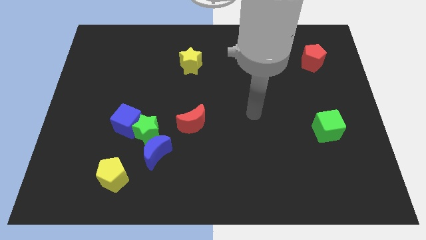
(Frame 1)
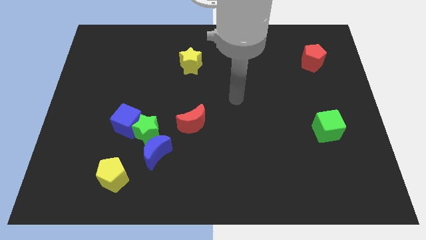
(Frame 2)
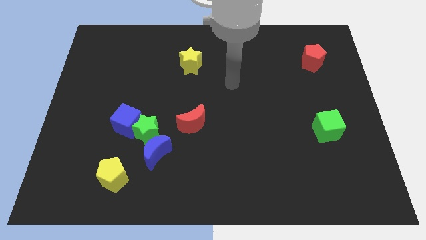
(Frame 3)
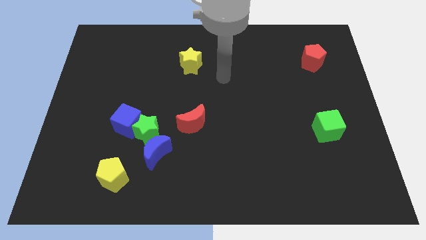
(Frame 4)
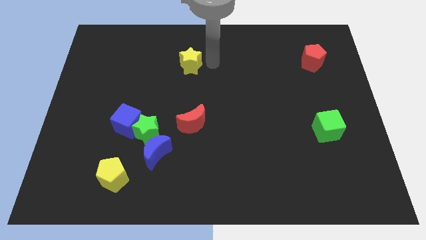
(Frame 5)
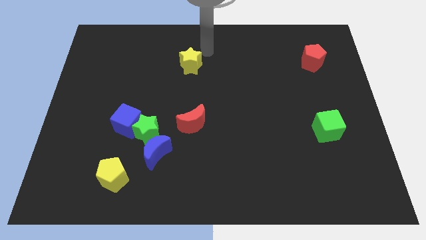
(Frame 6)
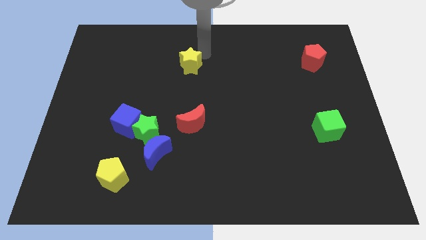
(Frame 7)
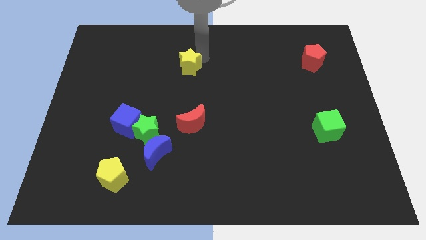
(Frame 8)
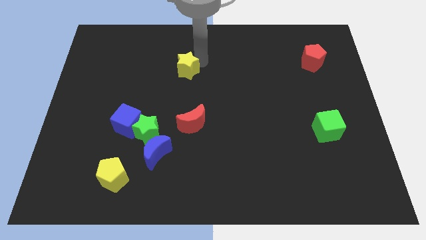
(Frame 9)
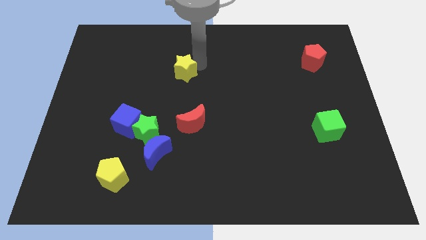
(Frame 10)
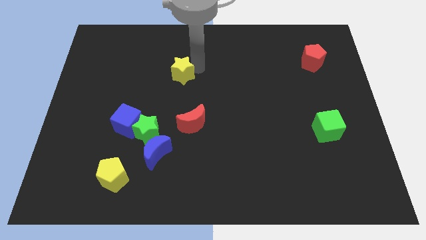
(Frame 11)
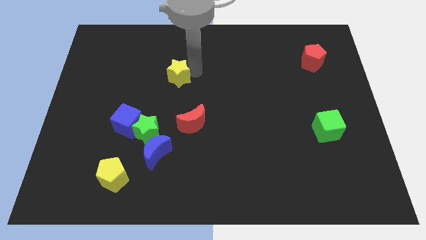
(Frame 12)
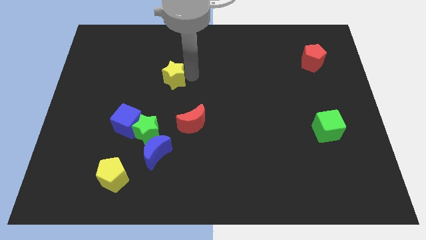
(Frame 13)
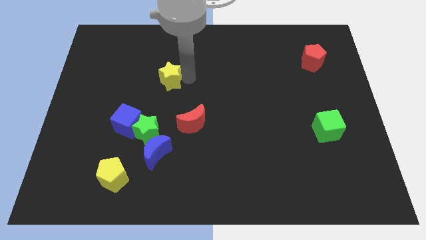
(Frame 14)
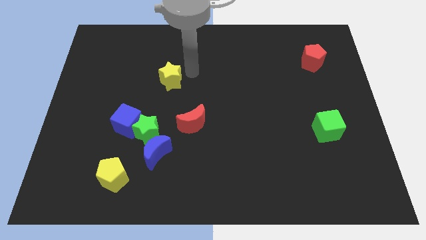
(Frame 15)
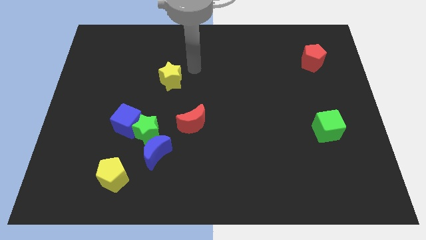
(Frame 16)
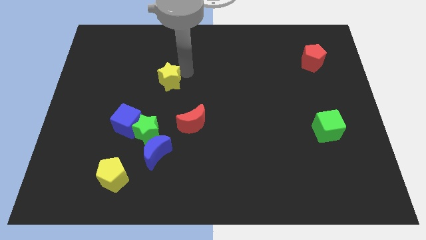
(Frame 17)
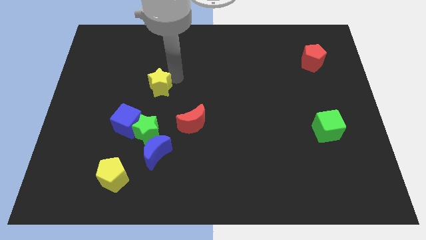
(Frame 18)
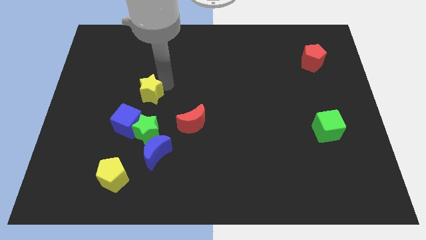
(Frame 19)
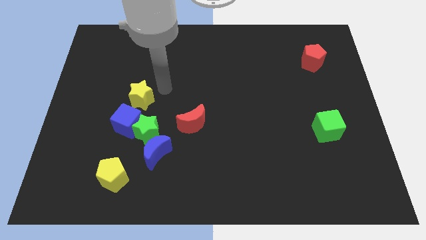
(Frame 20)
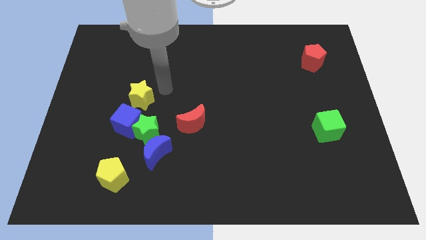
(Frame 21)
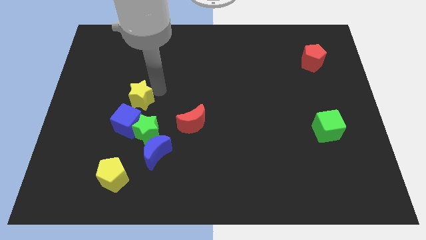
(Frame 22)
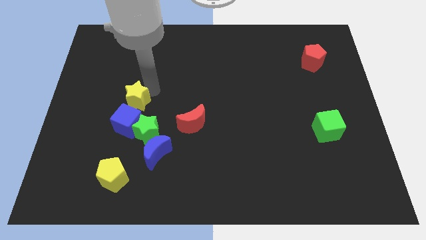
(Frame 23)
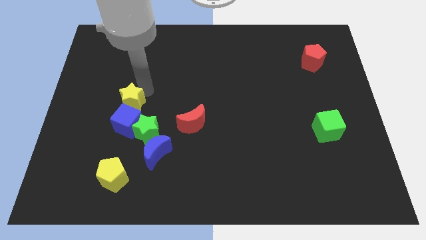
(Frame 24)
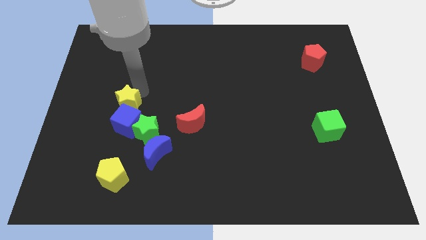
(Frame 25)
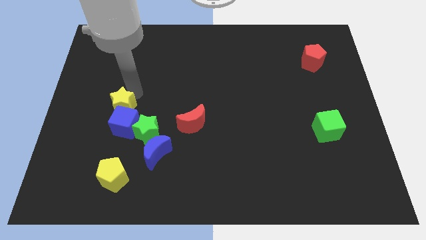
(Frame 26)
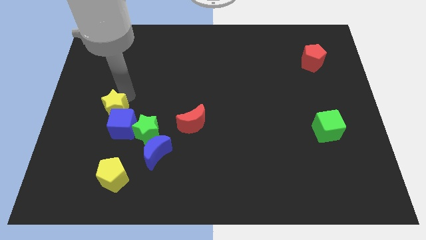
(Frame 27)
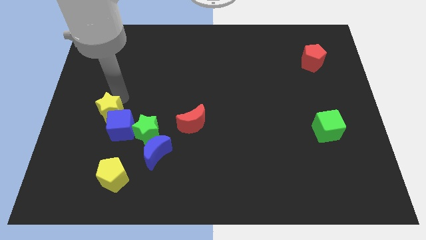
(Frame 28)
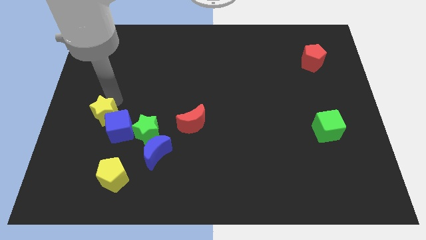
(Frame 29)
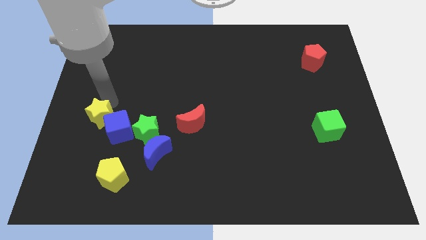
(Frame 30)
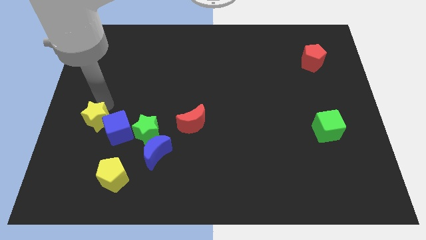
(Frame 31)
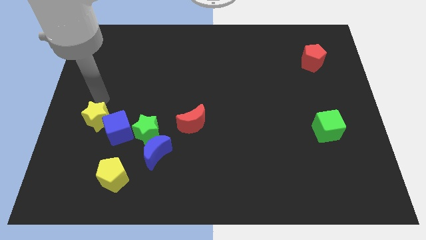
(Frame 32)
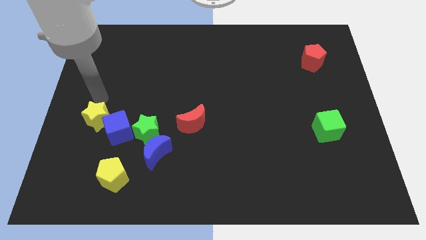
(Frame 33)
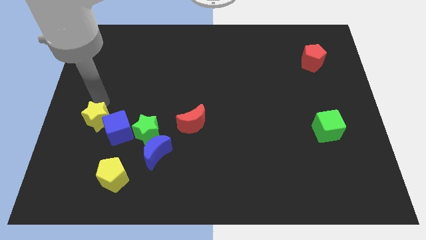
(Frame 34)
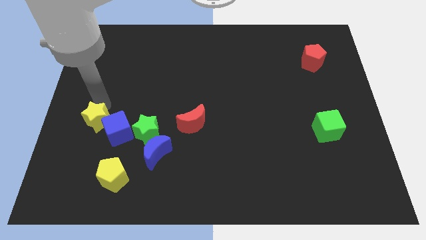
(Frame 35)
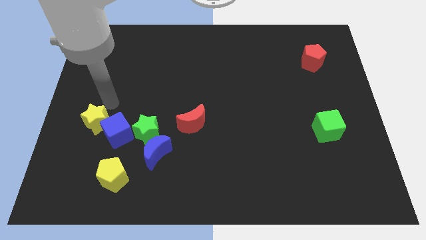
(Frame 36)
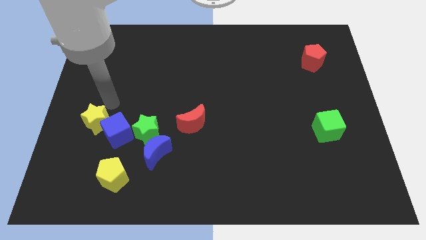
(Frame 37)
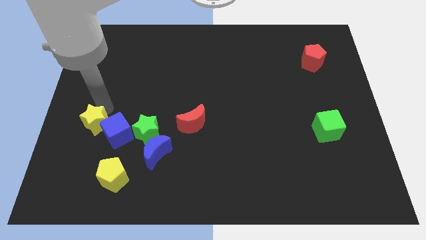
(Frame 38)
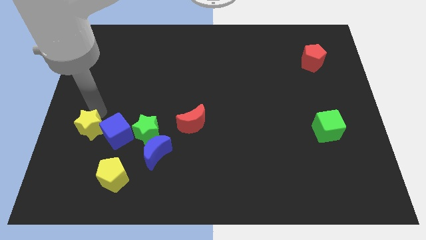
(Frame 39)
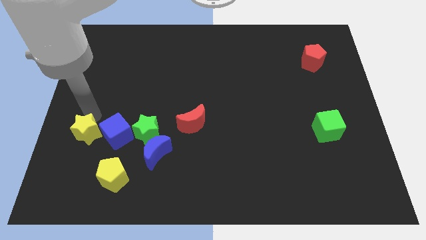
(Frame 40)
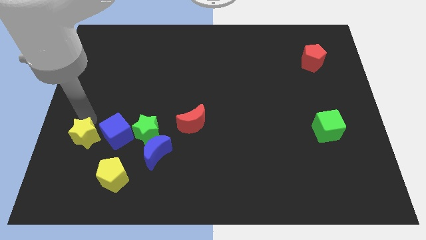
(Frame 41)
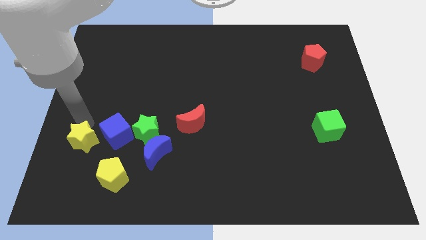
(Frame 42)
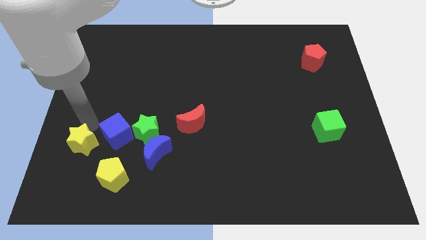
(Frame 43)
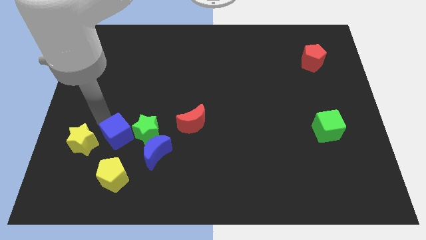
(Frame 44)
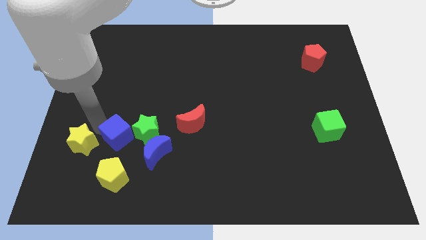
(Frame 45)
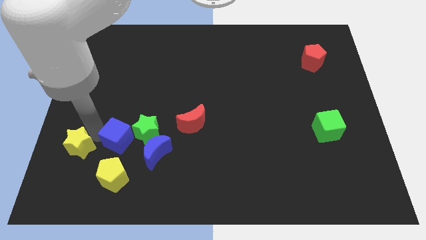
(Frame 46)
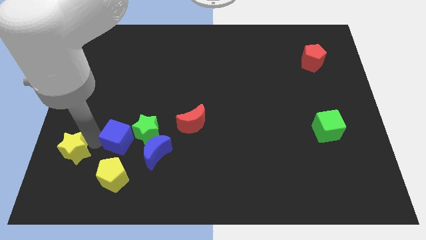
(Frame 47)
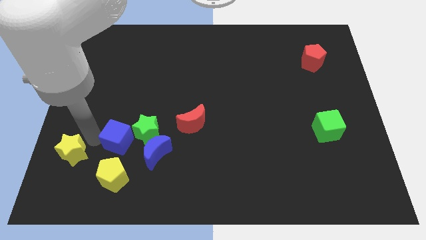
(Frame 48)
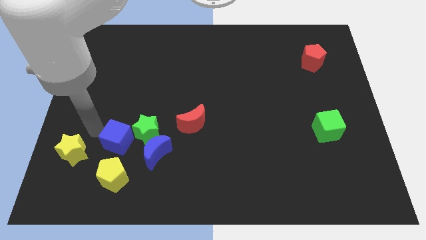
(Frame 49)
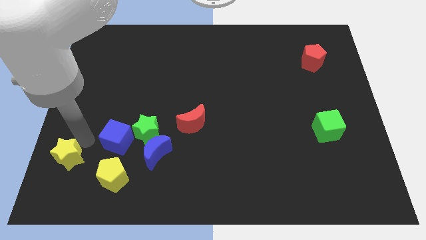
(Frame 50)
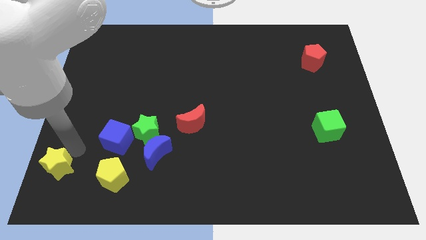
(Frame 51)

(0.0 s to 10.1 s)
put the yellow star to the bottom left

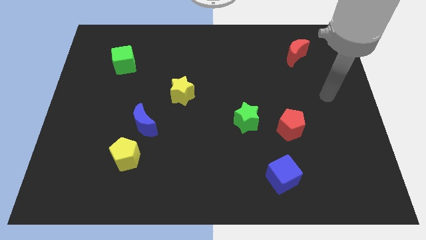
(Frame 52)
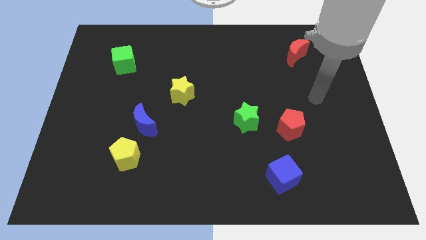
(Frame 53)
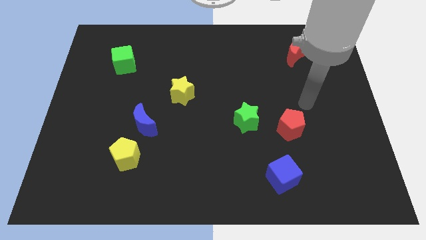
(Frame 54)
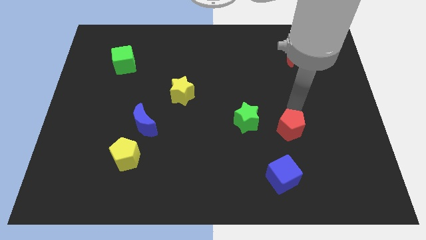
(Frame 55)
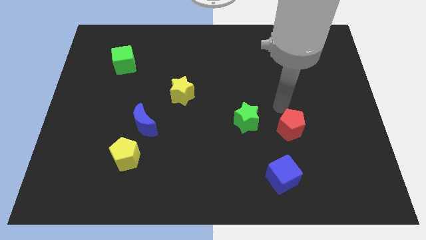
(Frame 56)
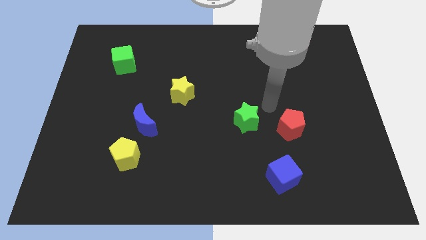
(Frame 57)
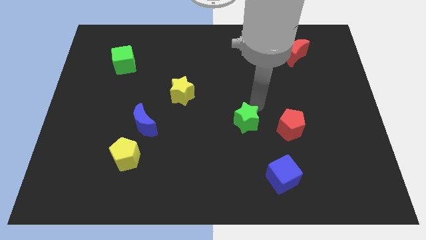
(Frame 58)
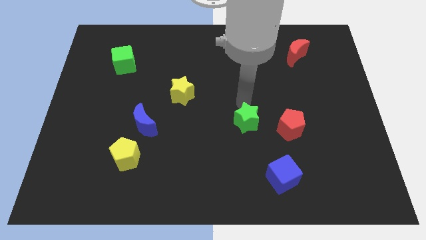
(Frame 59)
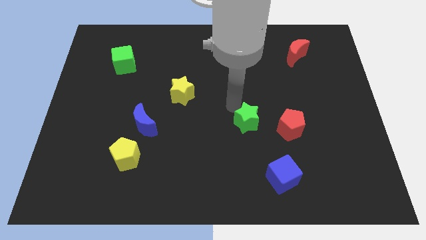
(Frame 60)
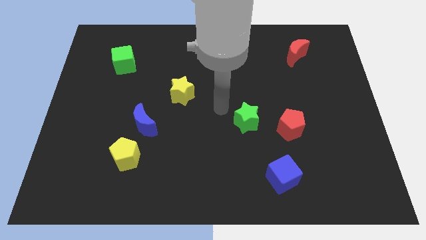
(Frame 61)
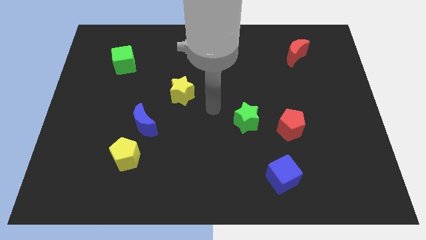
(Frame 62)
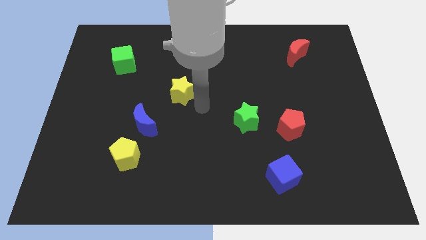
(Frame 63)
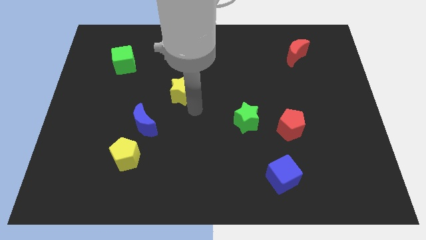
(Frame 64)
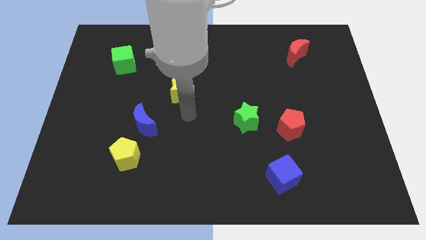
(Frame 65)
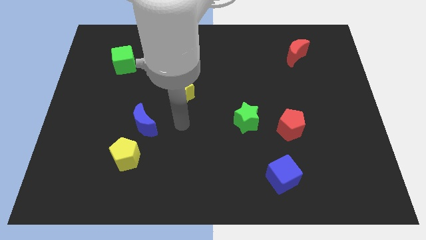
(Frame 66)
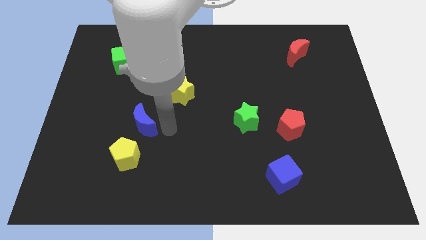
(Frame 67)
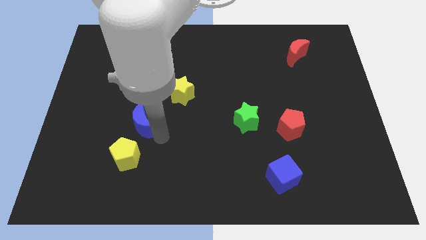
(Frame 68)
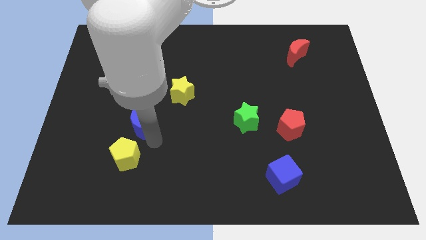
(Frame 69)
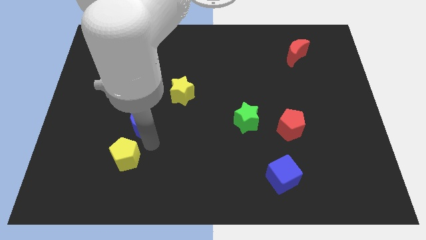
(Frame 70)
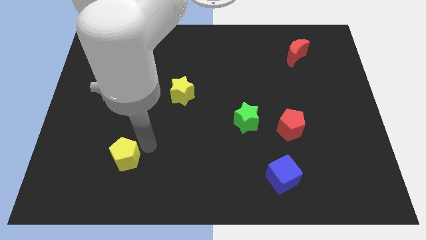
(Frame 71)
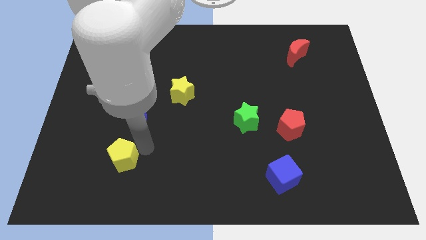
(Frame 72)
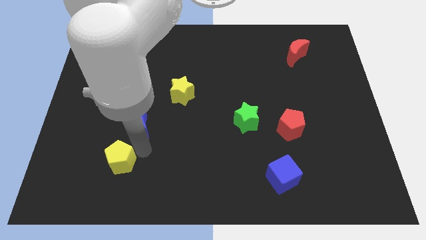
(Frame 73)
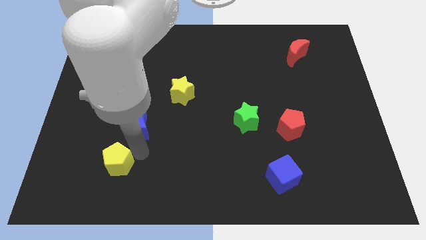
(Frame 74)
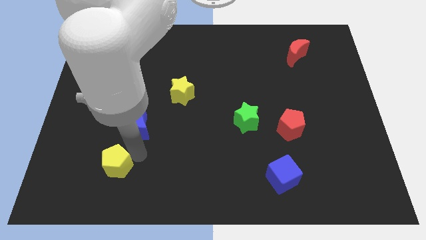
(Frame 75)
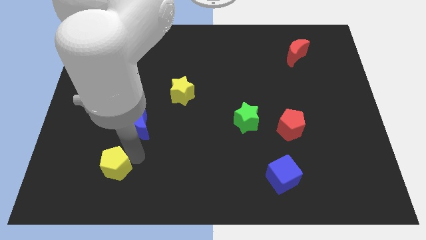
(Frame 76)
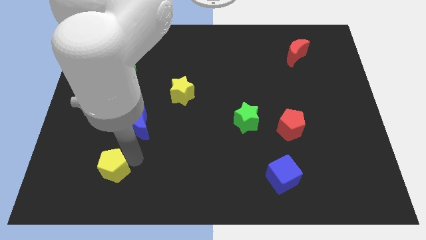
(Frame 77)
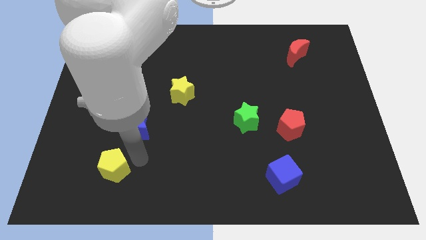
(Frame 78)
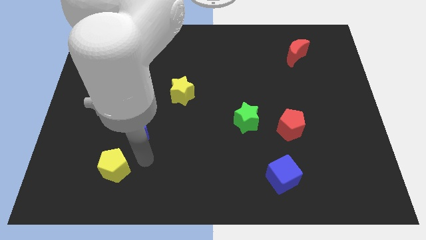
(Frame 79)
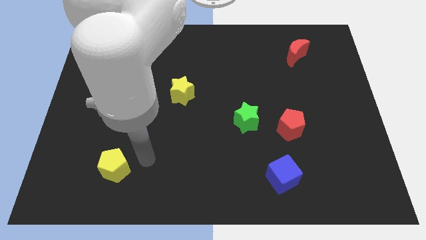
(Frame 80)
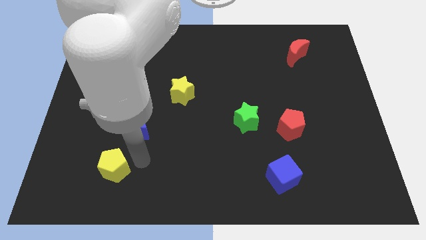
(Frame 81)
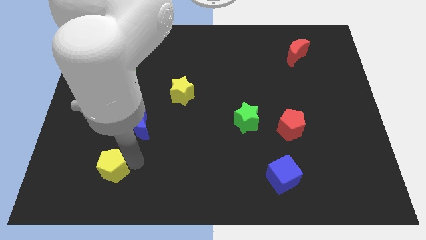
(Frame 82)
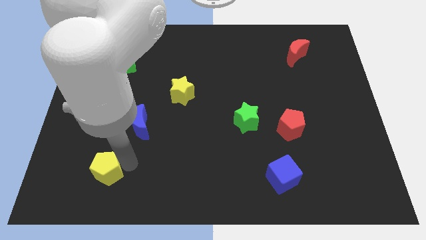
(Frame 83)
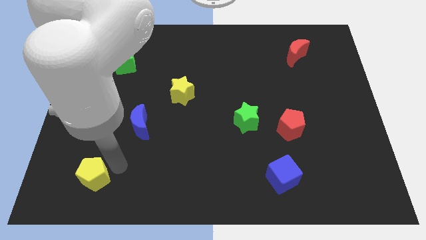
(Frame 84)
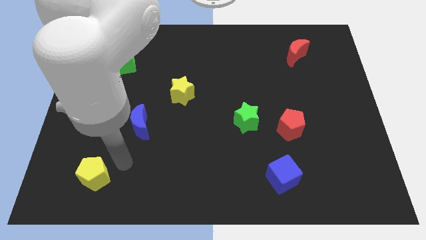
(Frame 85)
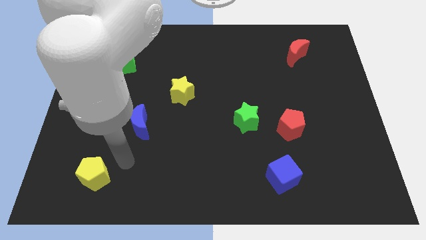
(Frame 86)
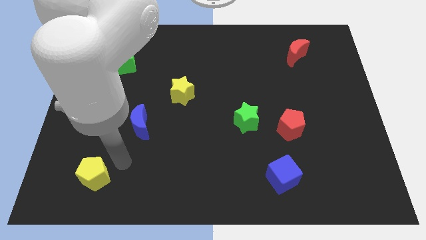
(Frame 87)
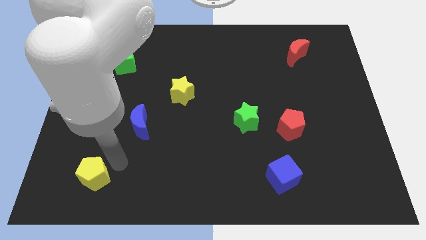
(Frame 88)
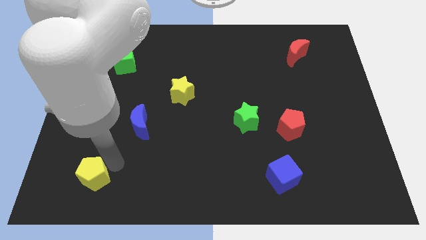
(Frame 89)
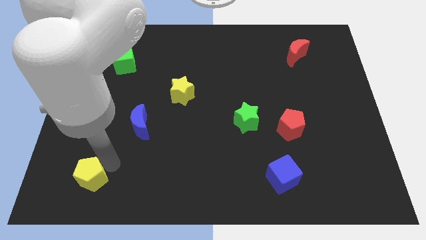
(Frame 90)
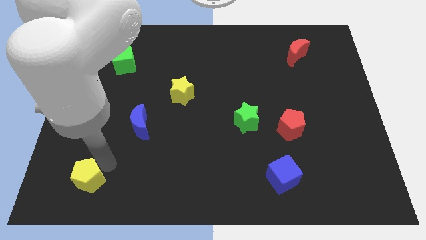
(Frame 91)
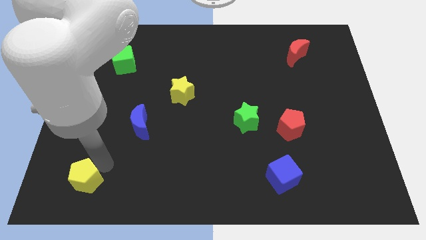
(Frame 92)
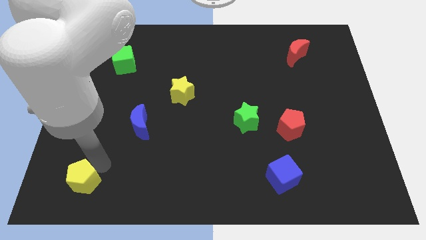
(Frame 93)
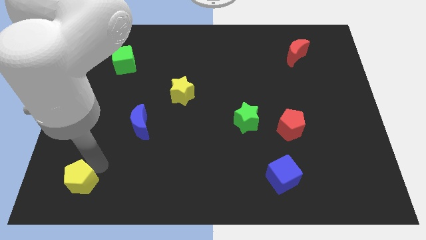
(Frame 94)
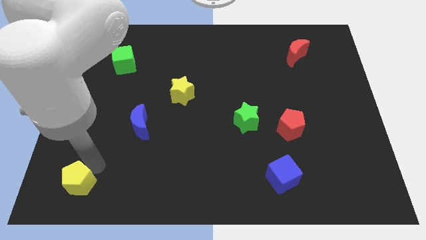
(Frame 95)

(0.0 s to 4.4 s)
move the yellow pentagon to the bottom left of the board
